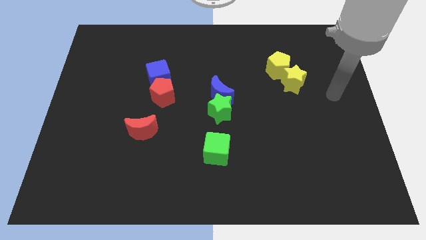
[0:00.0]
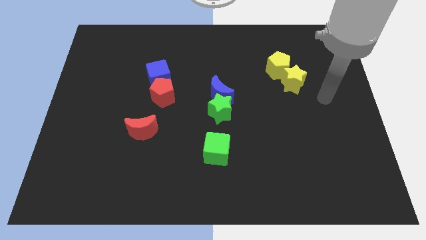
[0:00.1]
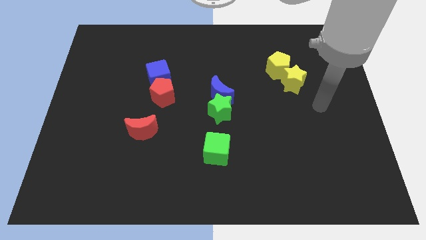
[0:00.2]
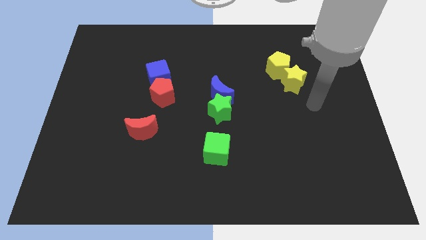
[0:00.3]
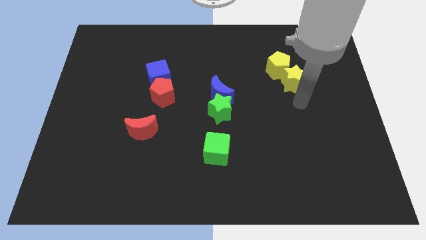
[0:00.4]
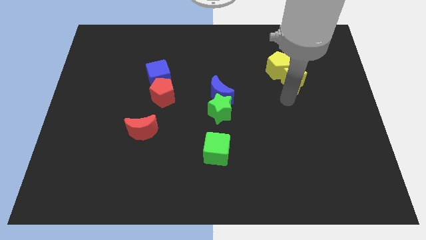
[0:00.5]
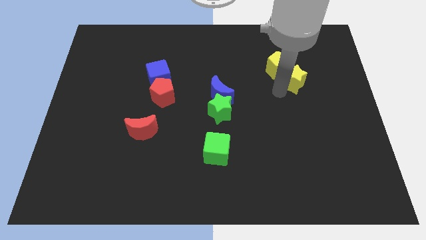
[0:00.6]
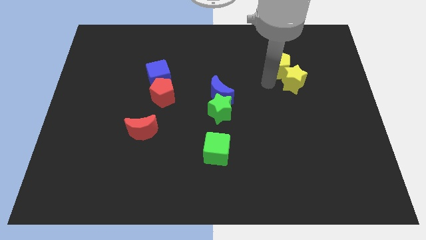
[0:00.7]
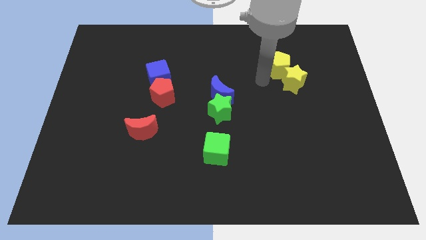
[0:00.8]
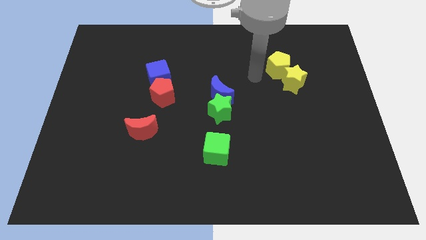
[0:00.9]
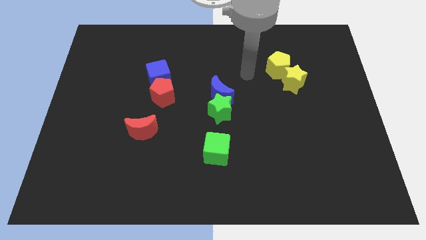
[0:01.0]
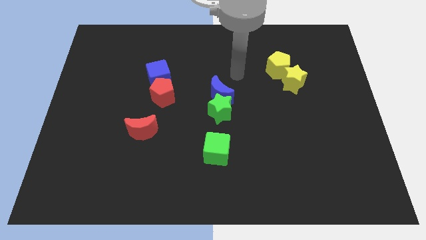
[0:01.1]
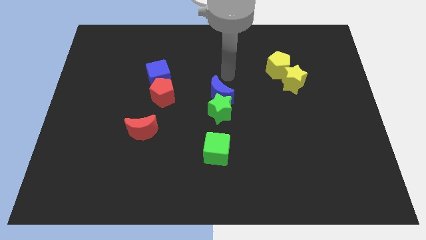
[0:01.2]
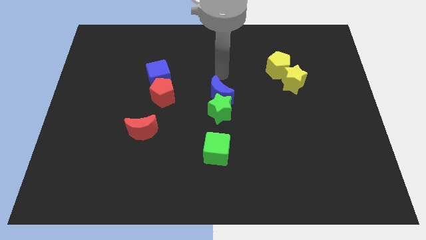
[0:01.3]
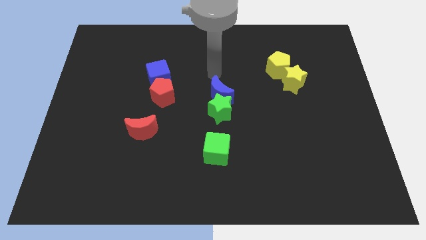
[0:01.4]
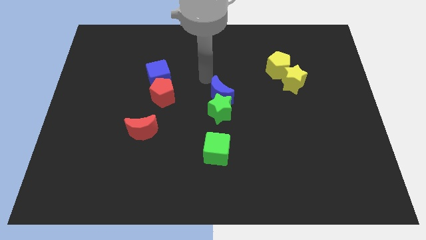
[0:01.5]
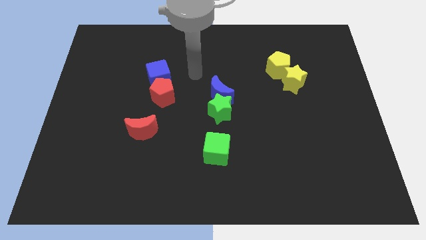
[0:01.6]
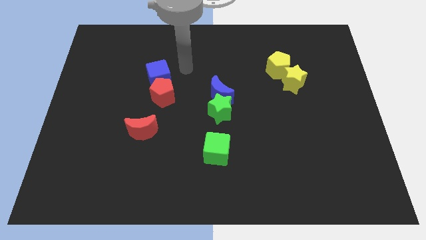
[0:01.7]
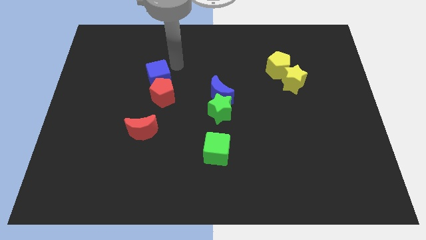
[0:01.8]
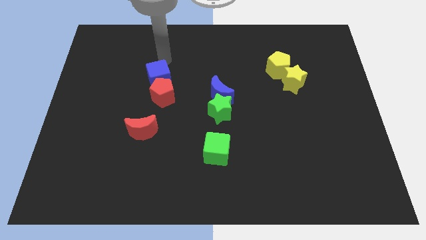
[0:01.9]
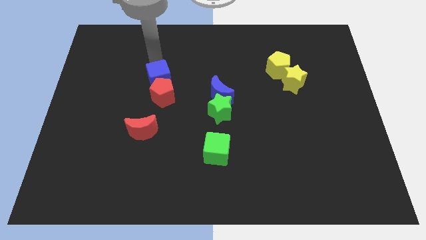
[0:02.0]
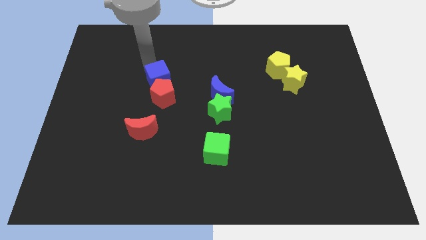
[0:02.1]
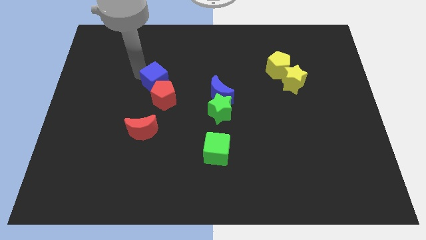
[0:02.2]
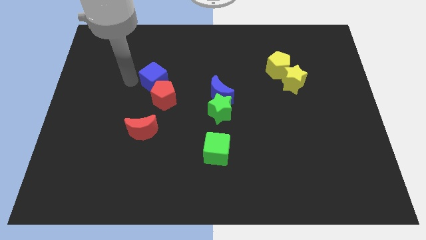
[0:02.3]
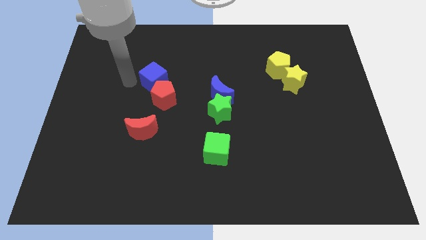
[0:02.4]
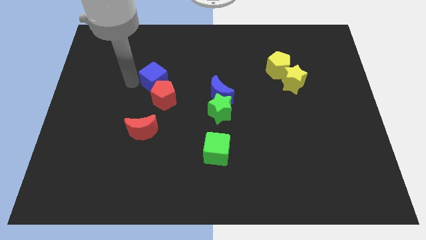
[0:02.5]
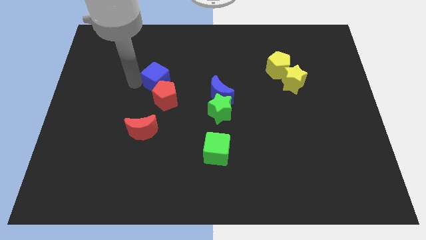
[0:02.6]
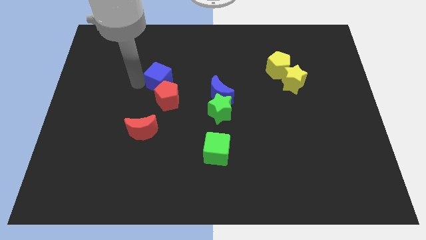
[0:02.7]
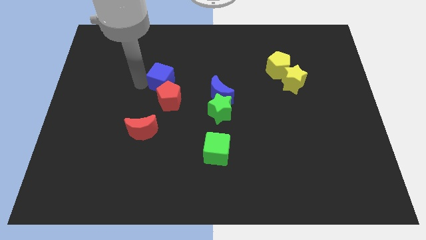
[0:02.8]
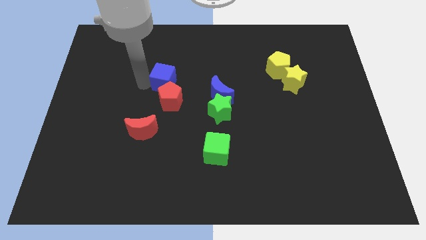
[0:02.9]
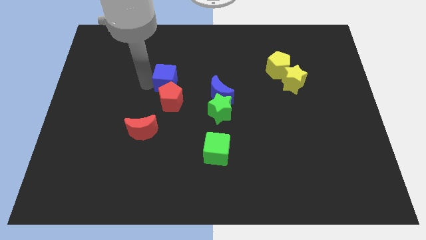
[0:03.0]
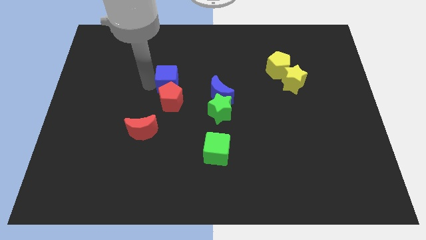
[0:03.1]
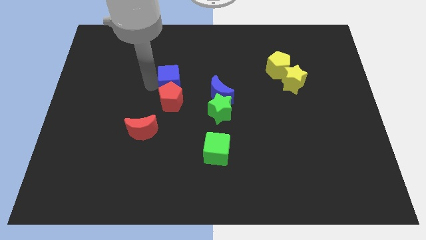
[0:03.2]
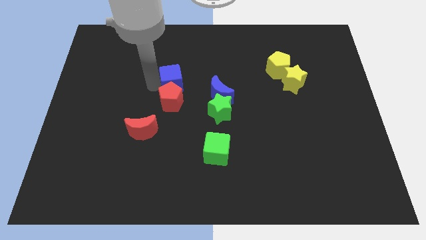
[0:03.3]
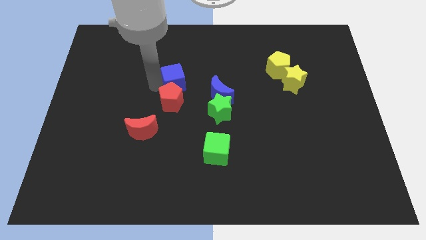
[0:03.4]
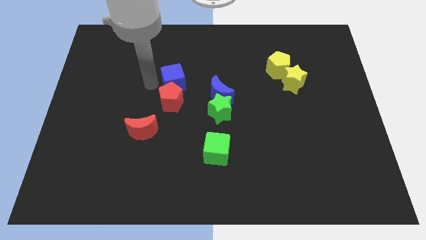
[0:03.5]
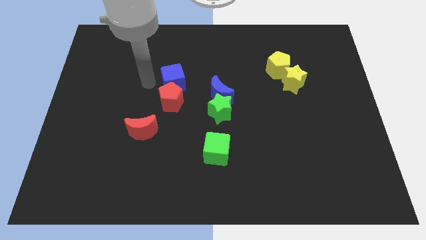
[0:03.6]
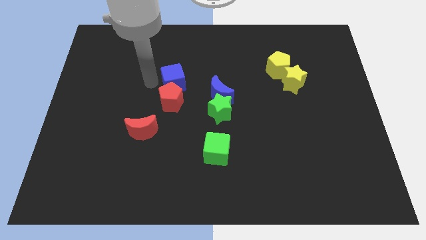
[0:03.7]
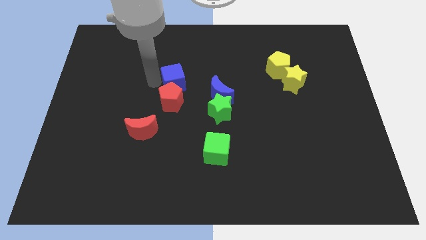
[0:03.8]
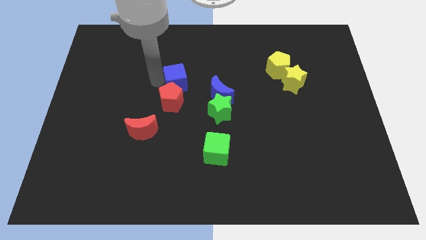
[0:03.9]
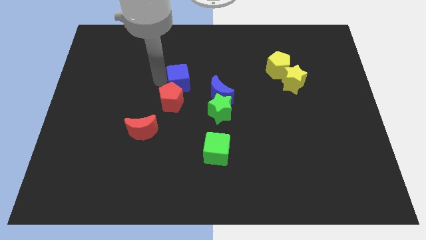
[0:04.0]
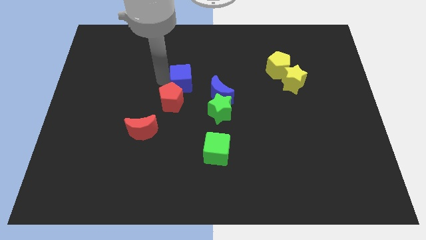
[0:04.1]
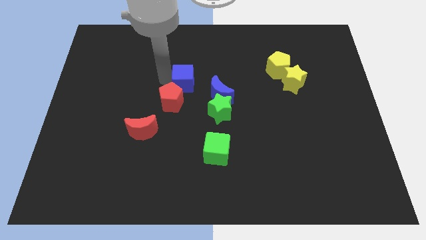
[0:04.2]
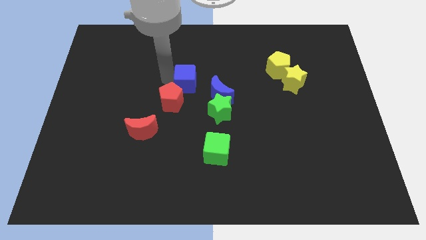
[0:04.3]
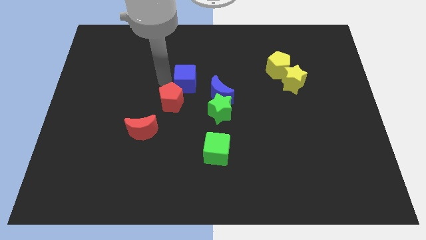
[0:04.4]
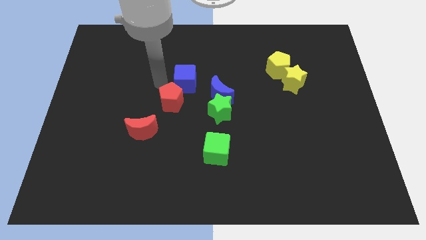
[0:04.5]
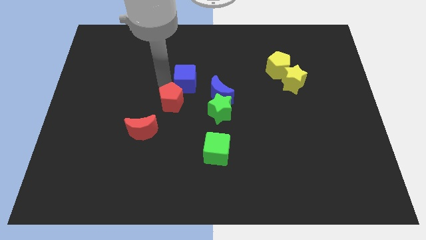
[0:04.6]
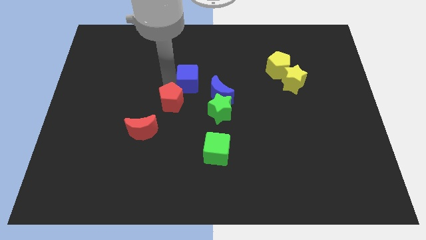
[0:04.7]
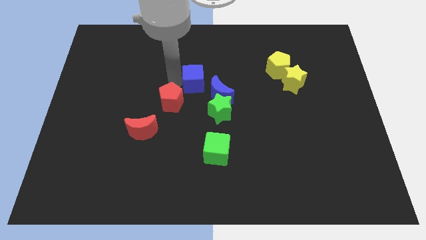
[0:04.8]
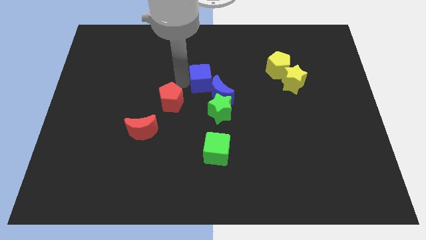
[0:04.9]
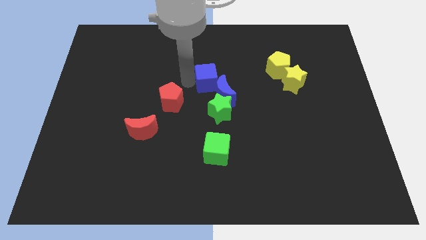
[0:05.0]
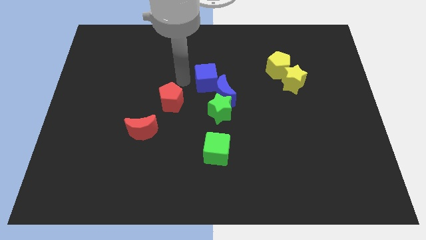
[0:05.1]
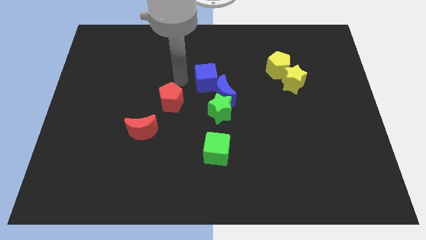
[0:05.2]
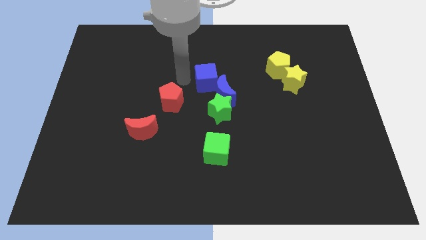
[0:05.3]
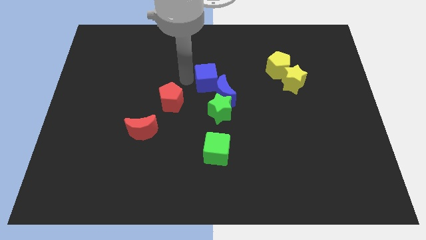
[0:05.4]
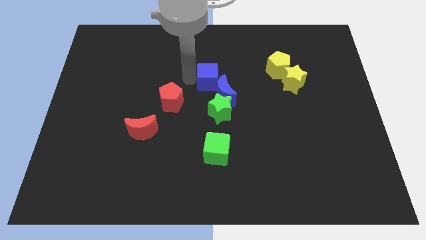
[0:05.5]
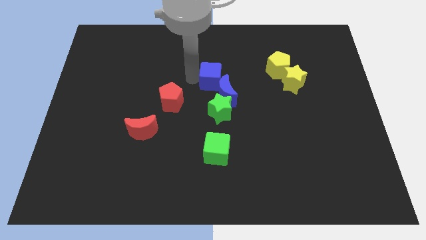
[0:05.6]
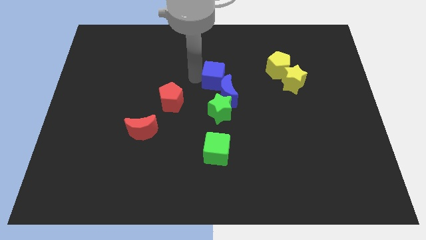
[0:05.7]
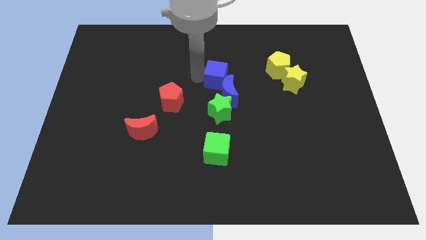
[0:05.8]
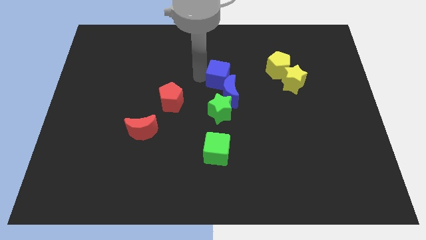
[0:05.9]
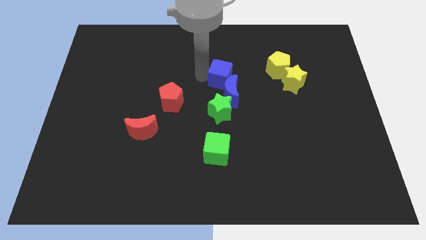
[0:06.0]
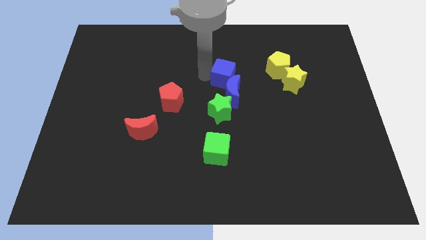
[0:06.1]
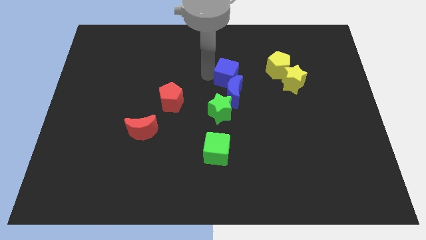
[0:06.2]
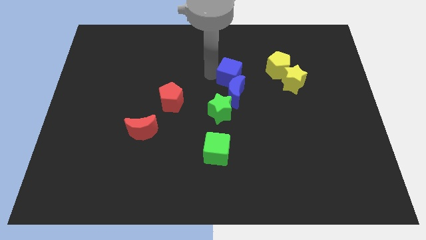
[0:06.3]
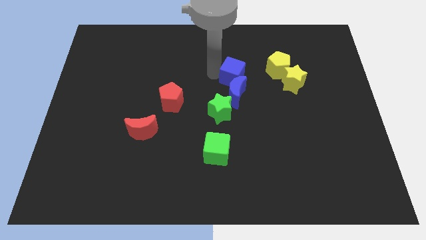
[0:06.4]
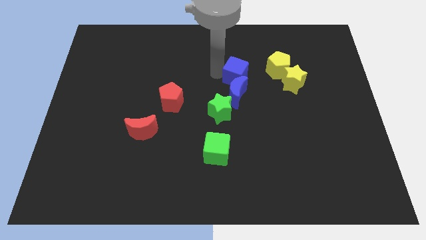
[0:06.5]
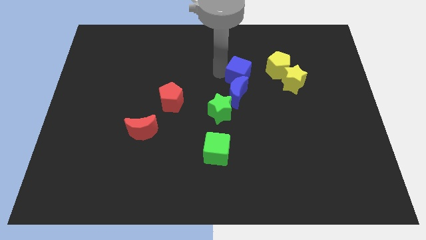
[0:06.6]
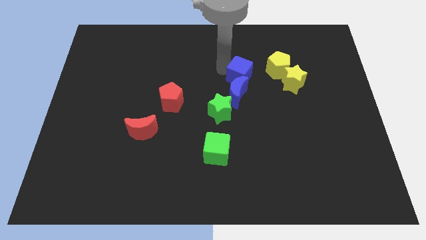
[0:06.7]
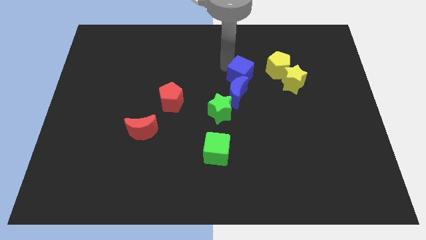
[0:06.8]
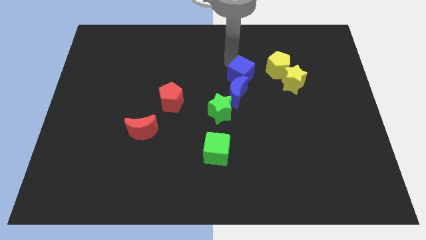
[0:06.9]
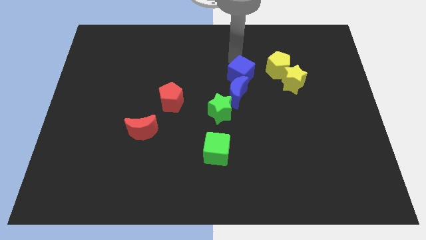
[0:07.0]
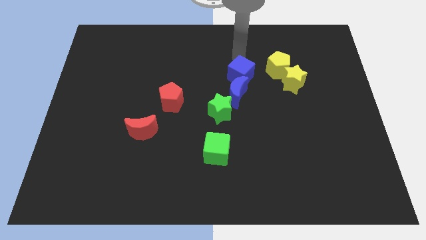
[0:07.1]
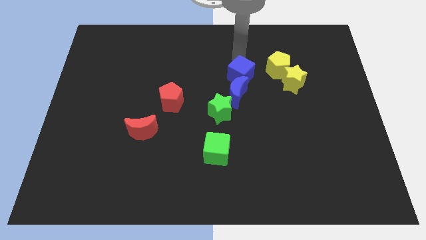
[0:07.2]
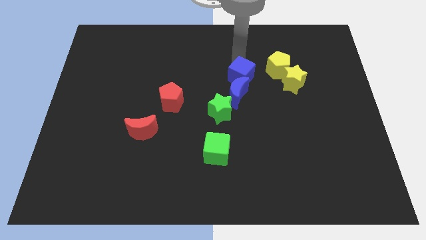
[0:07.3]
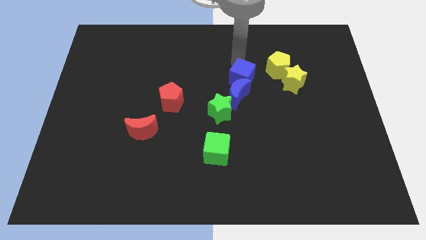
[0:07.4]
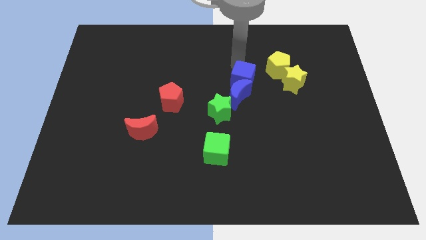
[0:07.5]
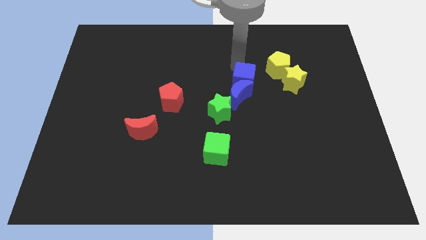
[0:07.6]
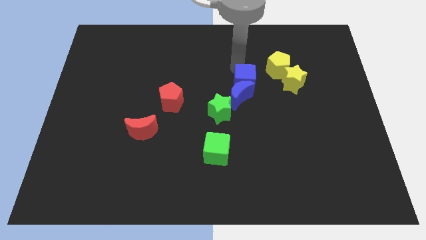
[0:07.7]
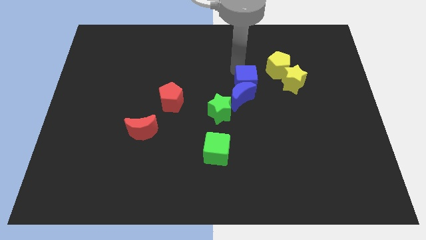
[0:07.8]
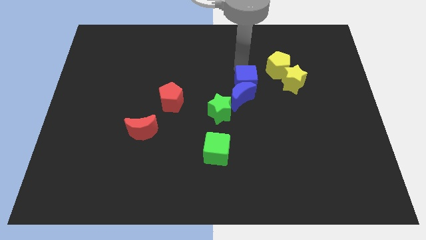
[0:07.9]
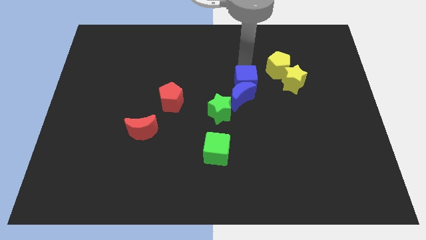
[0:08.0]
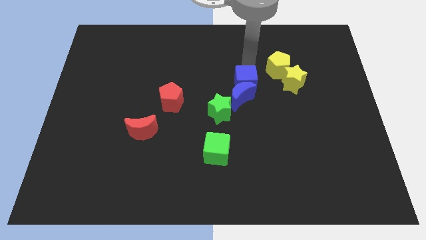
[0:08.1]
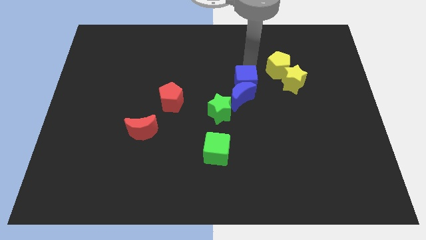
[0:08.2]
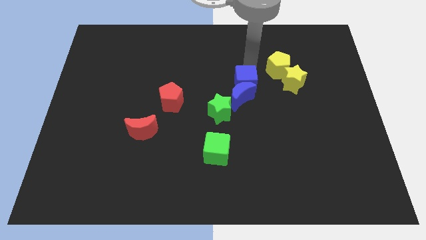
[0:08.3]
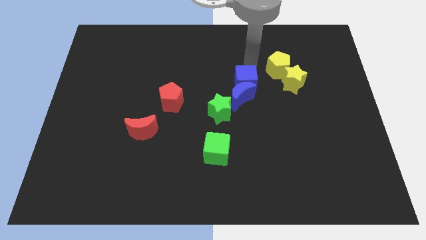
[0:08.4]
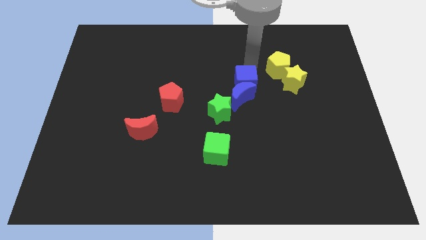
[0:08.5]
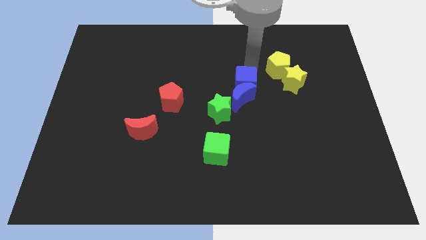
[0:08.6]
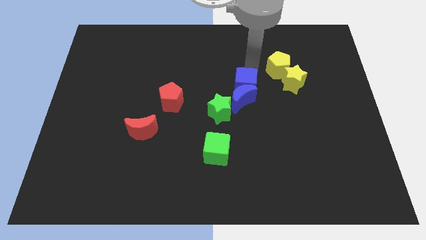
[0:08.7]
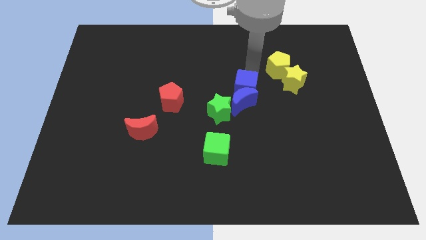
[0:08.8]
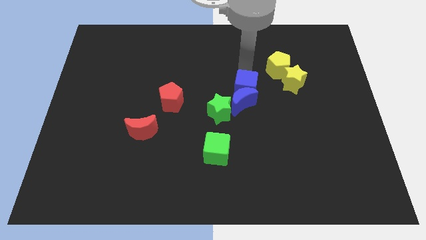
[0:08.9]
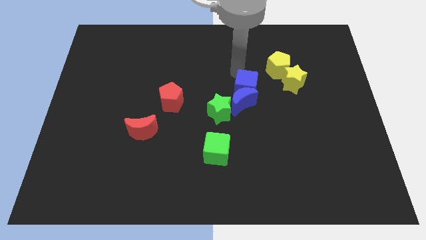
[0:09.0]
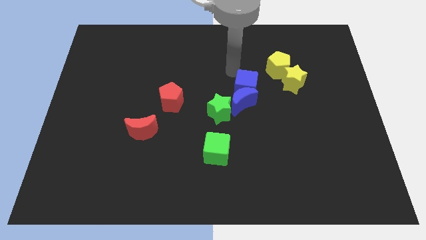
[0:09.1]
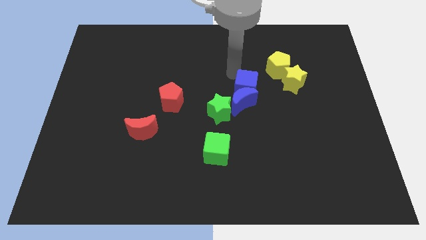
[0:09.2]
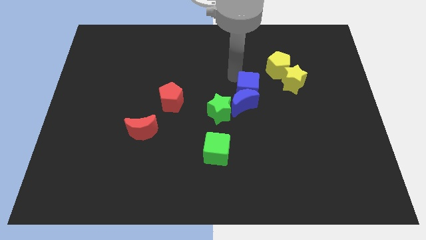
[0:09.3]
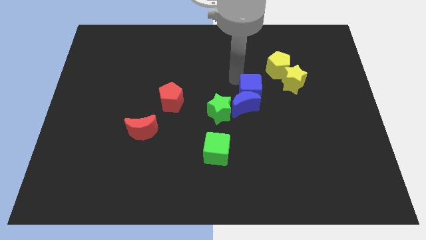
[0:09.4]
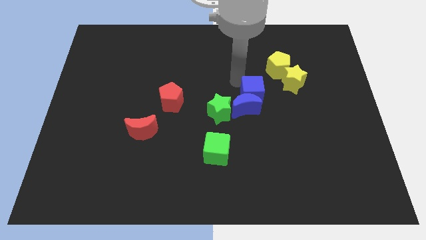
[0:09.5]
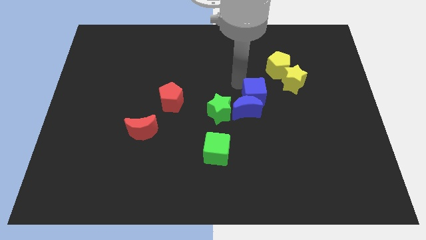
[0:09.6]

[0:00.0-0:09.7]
move the blue cube to the right of the green star
